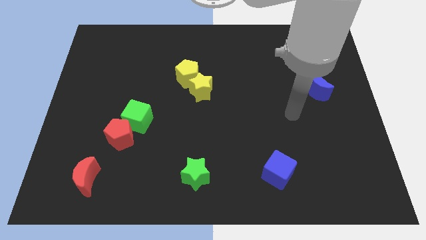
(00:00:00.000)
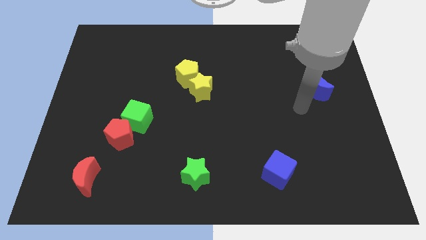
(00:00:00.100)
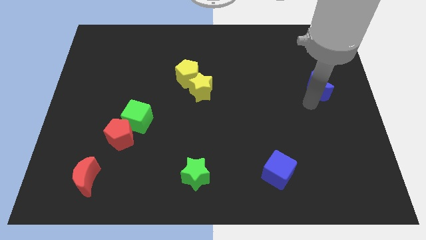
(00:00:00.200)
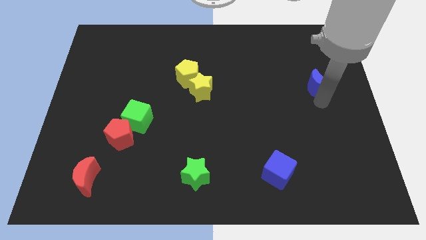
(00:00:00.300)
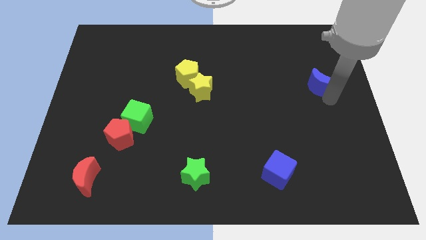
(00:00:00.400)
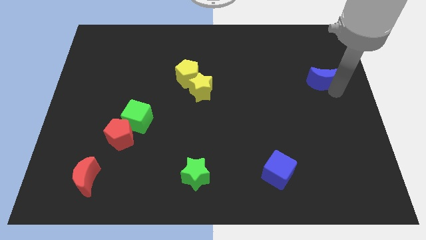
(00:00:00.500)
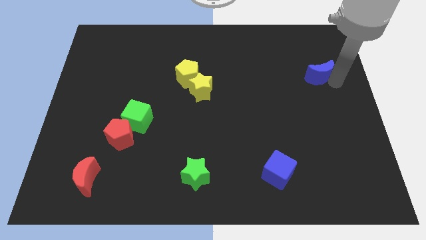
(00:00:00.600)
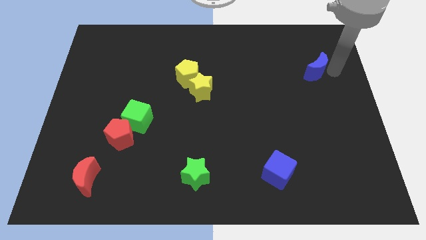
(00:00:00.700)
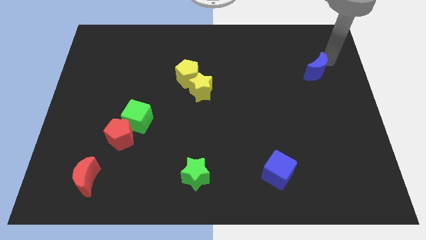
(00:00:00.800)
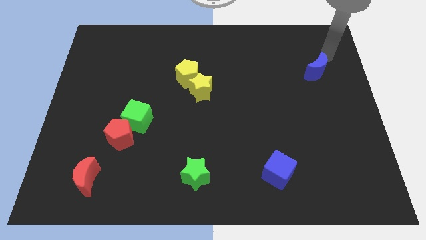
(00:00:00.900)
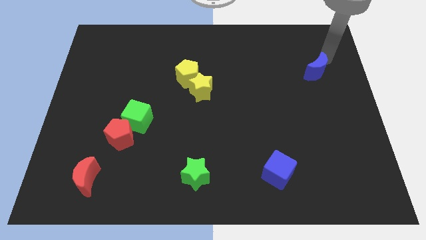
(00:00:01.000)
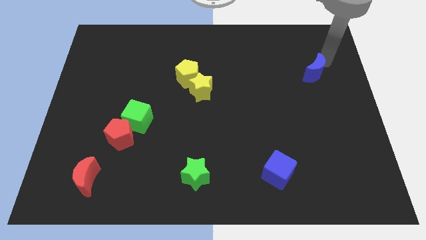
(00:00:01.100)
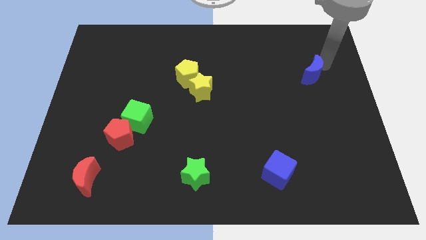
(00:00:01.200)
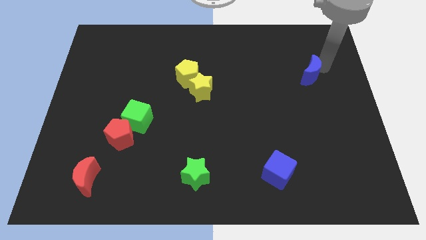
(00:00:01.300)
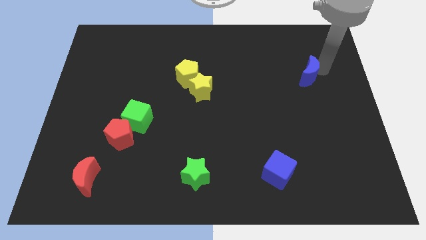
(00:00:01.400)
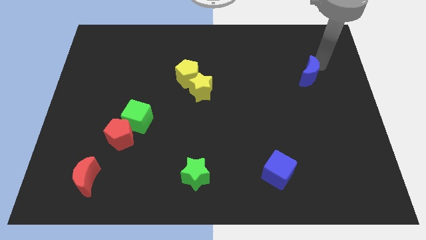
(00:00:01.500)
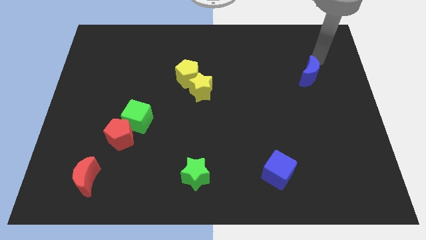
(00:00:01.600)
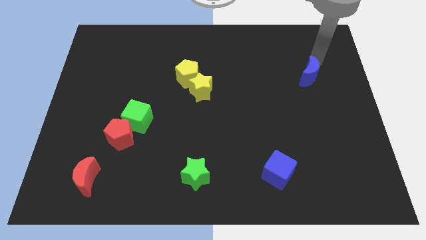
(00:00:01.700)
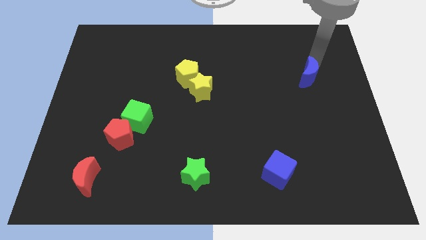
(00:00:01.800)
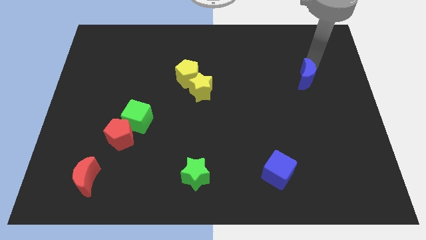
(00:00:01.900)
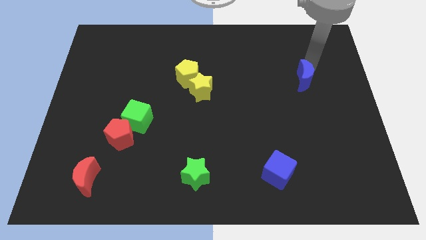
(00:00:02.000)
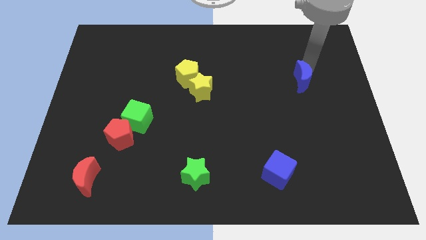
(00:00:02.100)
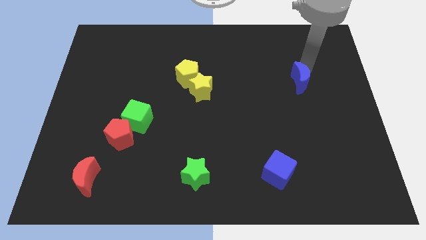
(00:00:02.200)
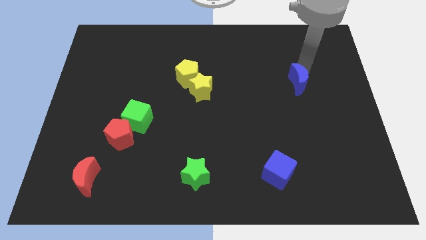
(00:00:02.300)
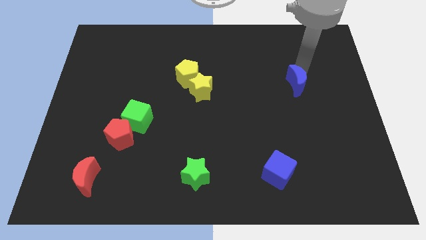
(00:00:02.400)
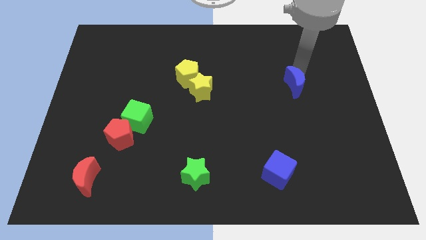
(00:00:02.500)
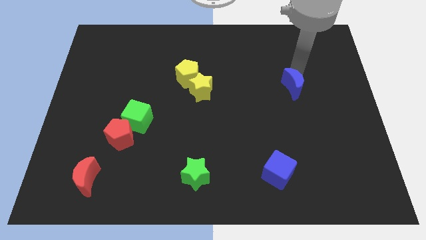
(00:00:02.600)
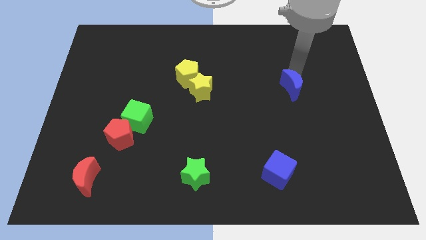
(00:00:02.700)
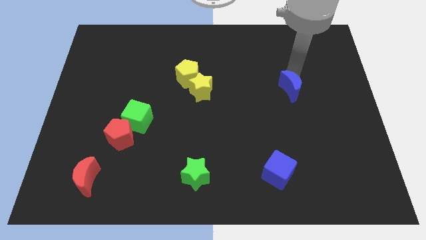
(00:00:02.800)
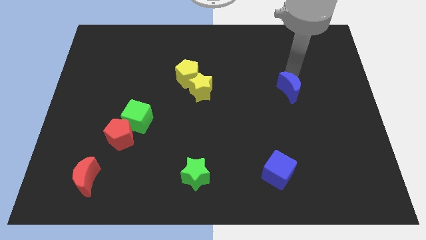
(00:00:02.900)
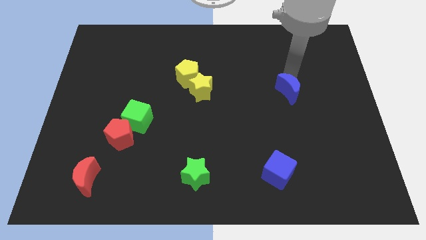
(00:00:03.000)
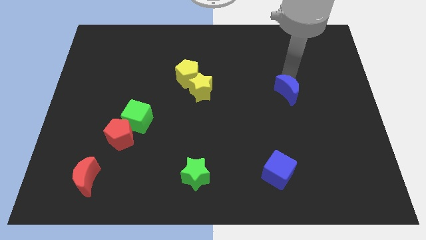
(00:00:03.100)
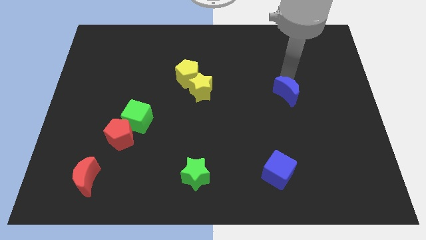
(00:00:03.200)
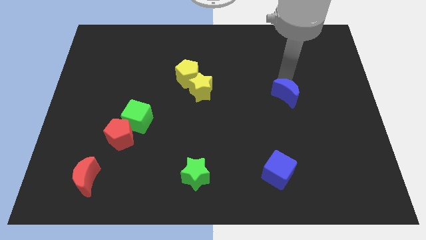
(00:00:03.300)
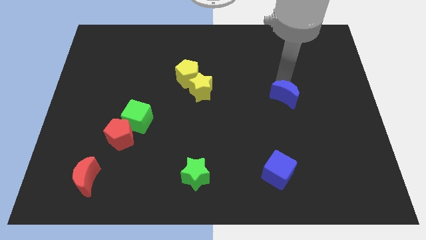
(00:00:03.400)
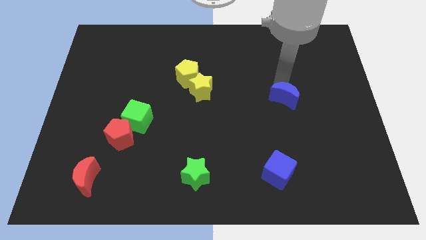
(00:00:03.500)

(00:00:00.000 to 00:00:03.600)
slide the blue moon down and left a little

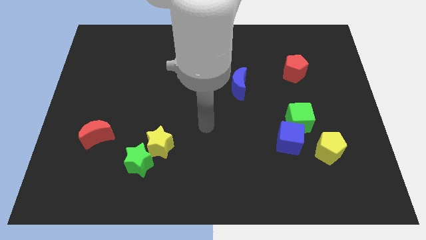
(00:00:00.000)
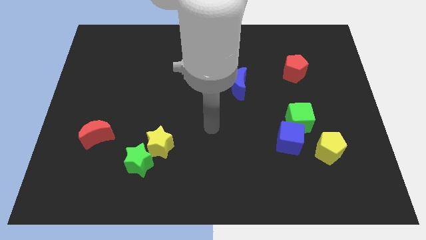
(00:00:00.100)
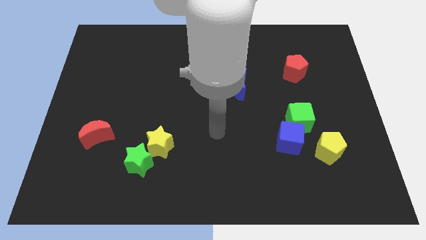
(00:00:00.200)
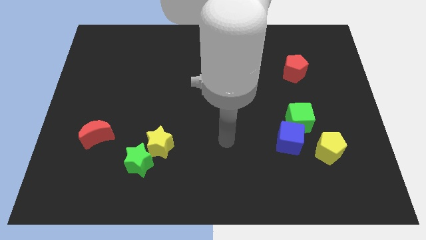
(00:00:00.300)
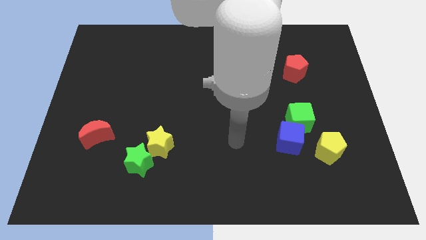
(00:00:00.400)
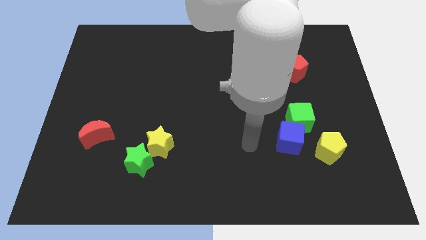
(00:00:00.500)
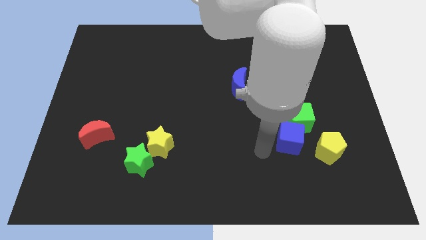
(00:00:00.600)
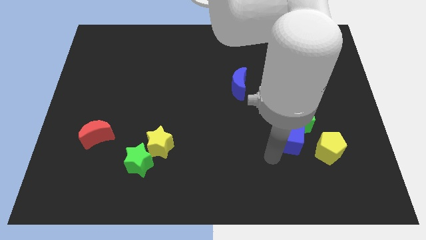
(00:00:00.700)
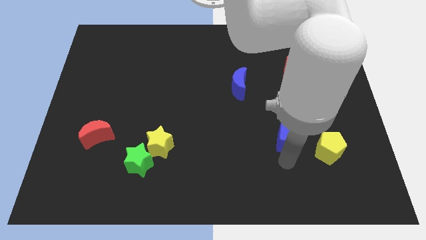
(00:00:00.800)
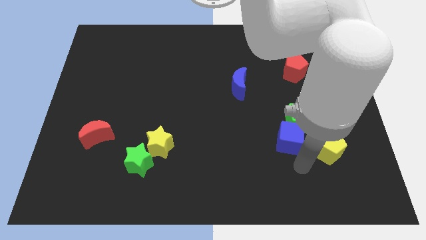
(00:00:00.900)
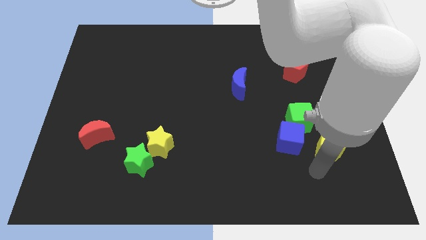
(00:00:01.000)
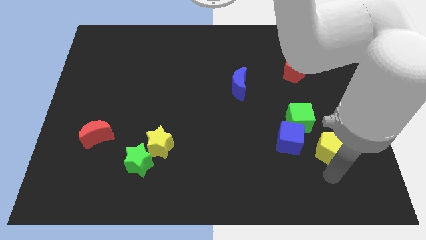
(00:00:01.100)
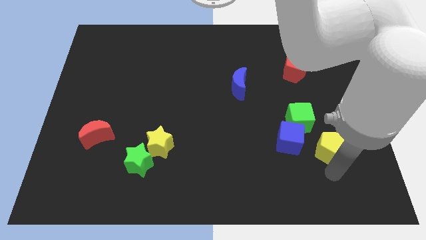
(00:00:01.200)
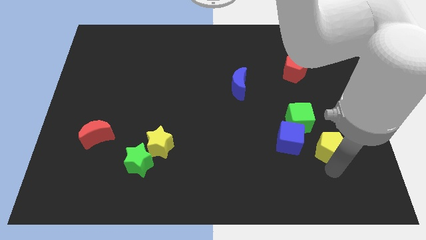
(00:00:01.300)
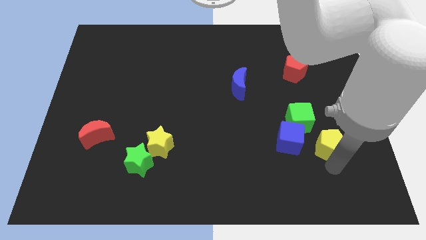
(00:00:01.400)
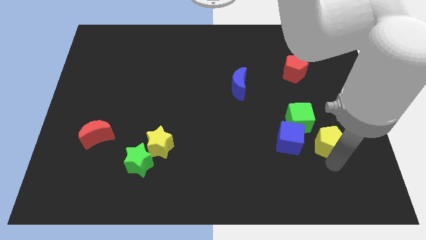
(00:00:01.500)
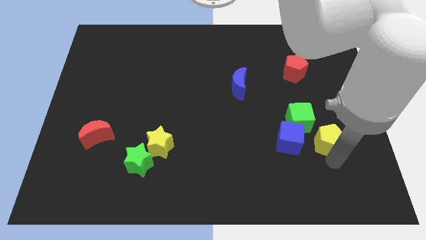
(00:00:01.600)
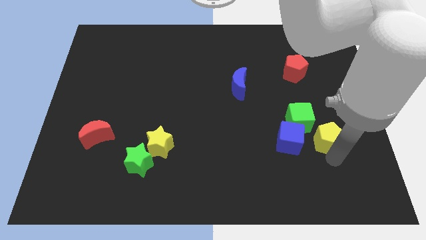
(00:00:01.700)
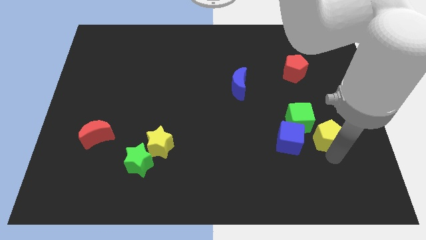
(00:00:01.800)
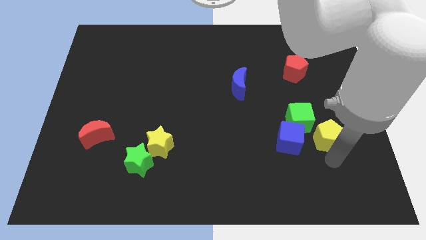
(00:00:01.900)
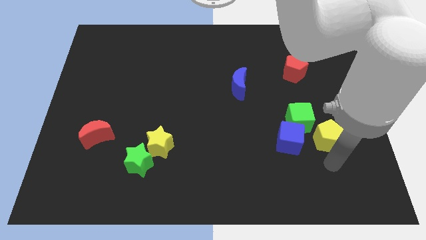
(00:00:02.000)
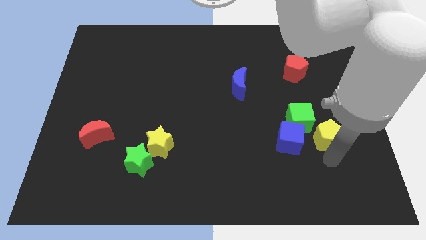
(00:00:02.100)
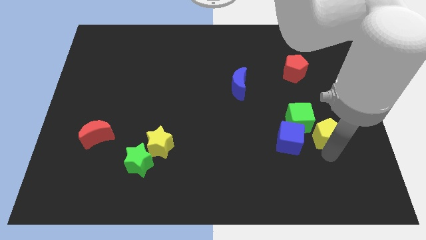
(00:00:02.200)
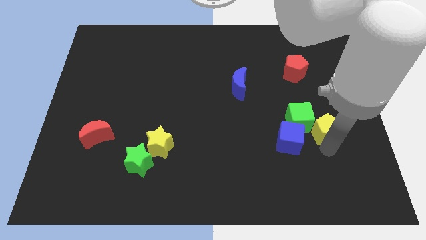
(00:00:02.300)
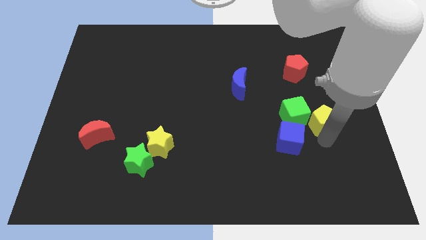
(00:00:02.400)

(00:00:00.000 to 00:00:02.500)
push the yellow pentagon up somewhat

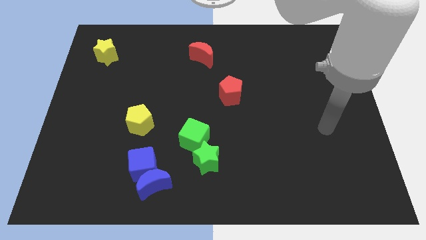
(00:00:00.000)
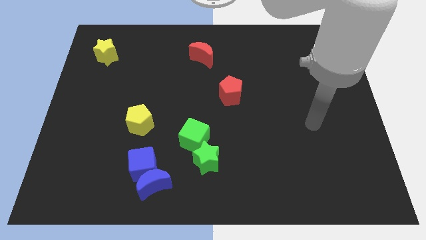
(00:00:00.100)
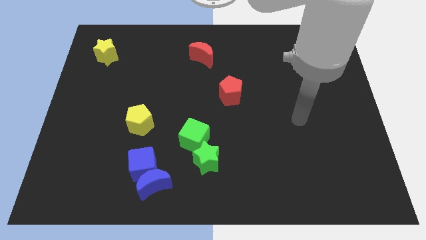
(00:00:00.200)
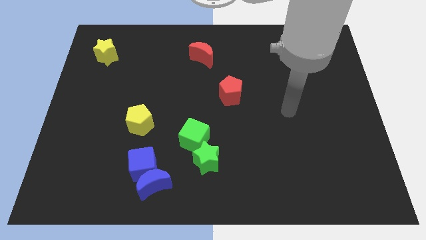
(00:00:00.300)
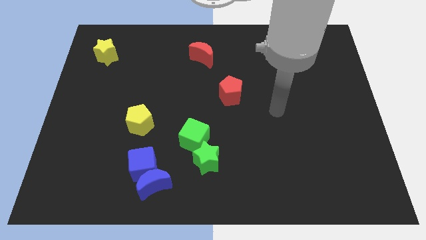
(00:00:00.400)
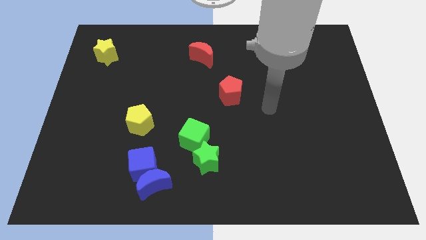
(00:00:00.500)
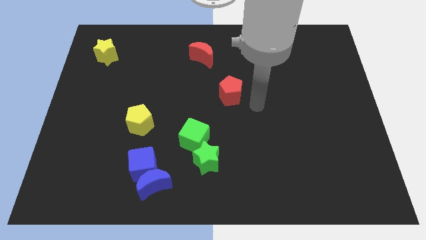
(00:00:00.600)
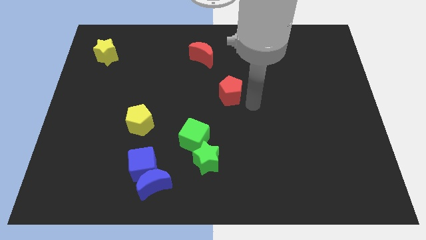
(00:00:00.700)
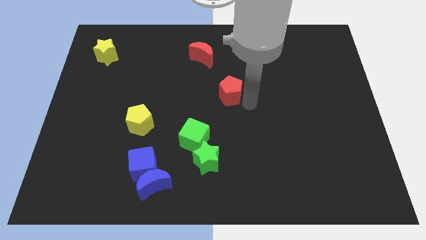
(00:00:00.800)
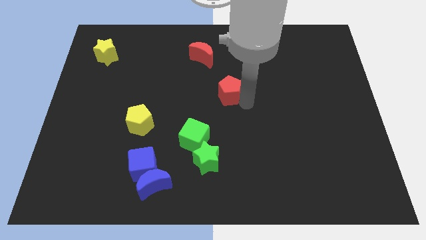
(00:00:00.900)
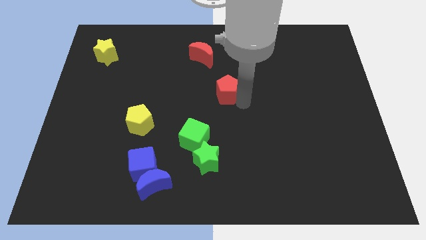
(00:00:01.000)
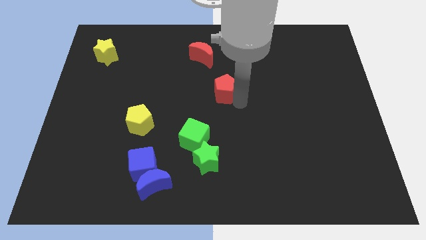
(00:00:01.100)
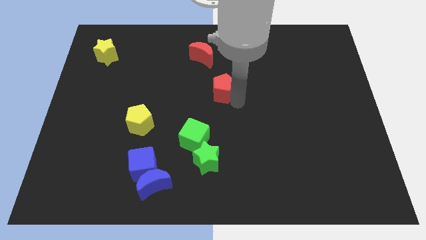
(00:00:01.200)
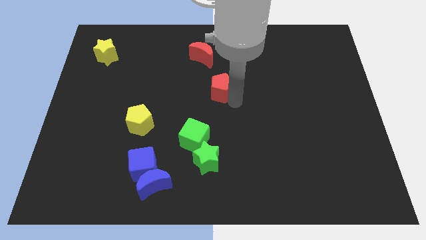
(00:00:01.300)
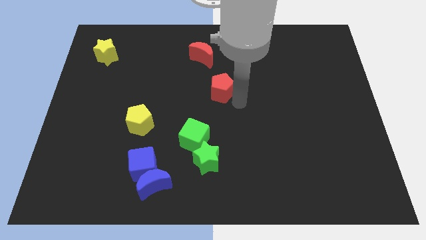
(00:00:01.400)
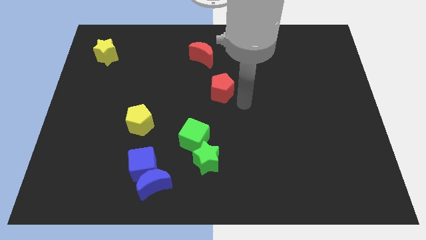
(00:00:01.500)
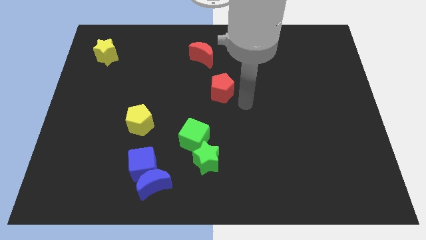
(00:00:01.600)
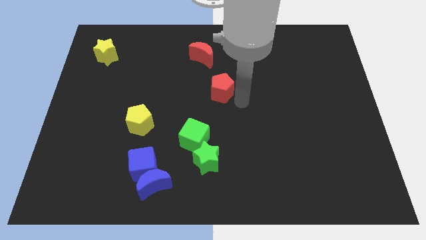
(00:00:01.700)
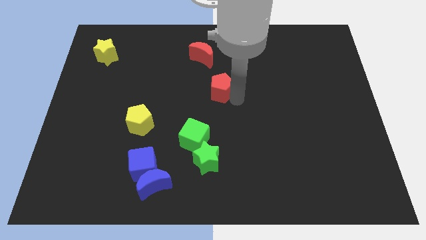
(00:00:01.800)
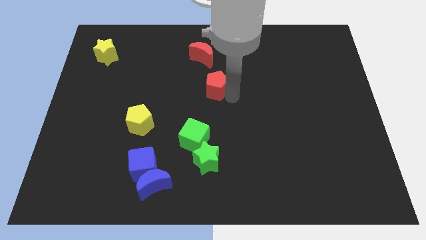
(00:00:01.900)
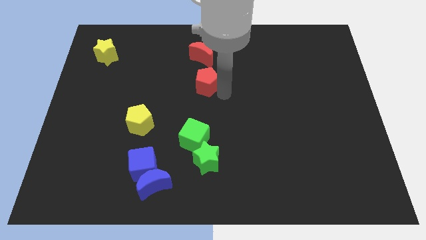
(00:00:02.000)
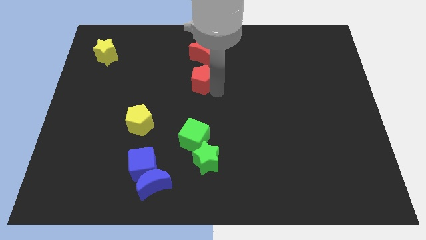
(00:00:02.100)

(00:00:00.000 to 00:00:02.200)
push the red pentagon a little up and left diagonally

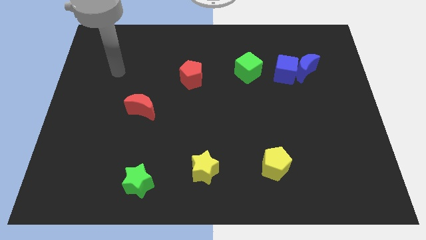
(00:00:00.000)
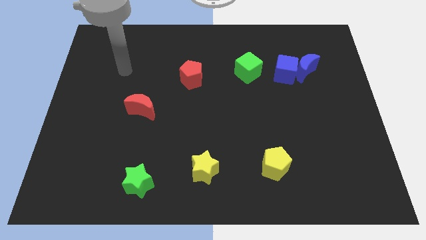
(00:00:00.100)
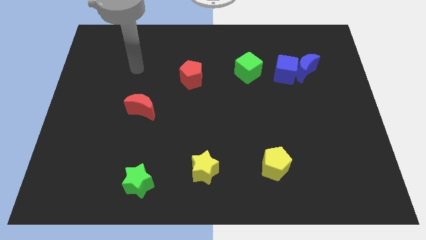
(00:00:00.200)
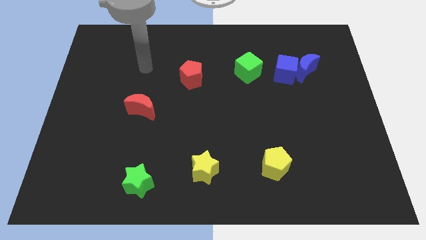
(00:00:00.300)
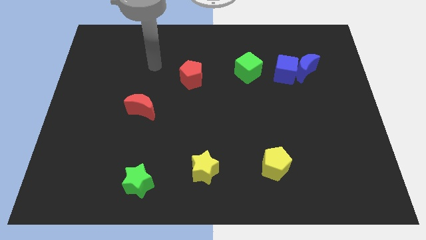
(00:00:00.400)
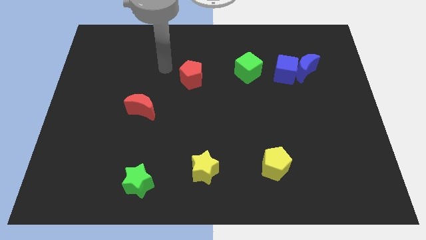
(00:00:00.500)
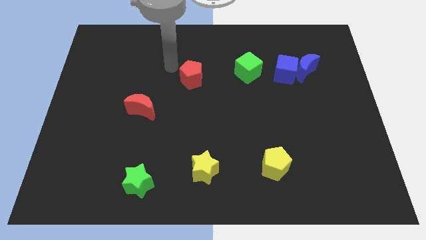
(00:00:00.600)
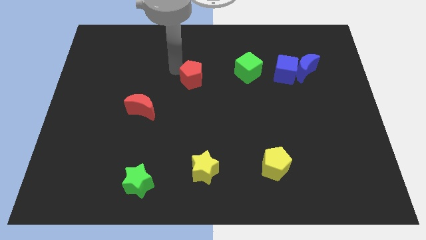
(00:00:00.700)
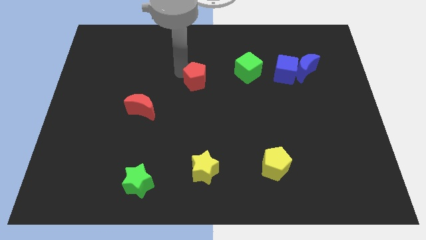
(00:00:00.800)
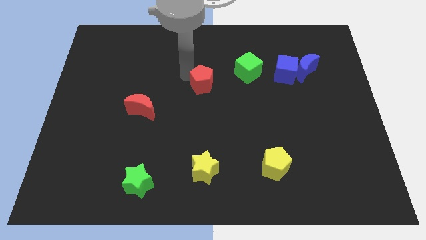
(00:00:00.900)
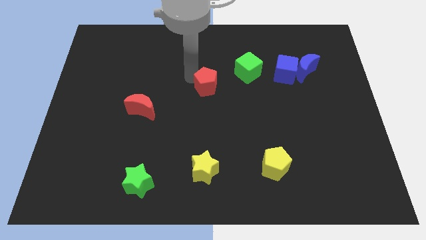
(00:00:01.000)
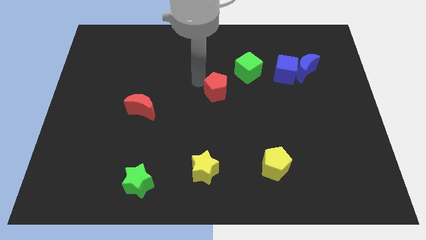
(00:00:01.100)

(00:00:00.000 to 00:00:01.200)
slide the red pentagon a little diagonally down and to the right
